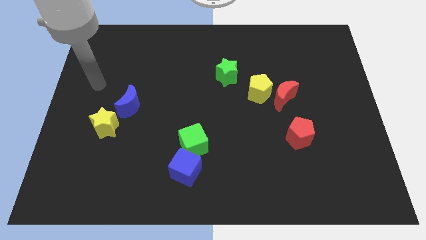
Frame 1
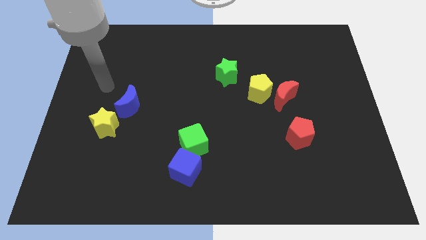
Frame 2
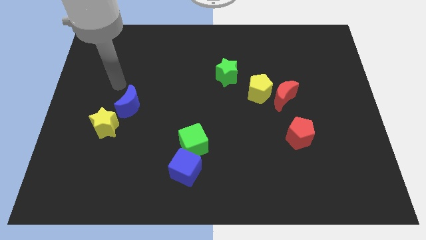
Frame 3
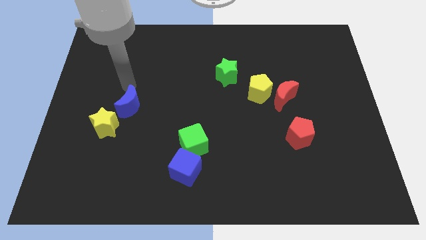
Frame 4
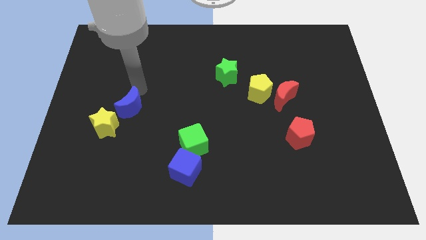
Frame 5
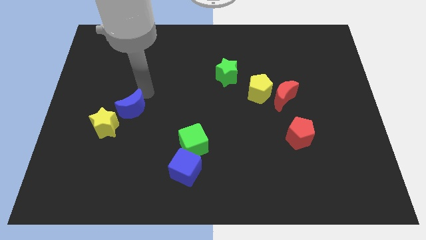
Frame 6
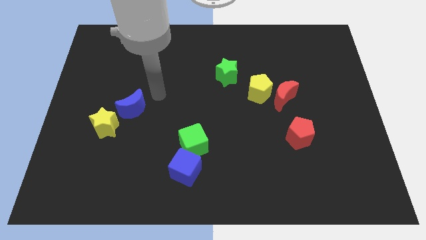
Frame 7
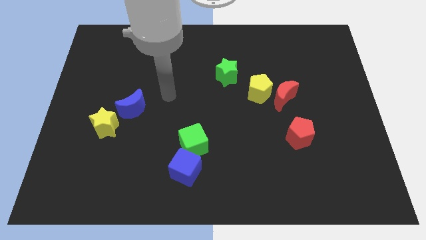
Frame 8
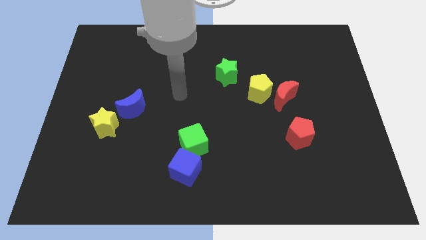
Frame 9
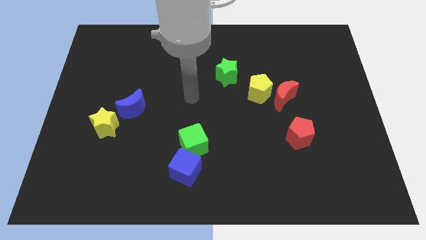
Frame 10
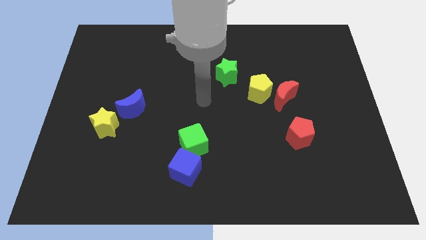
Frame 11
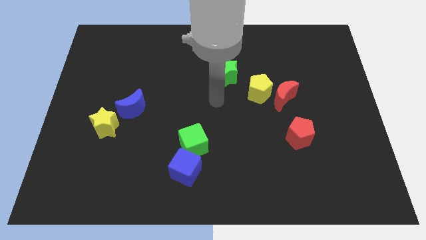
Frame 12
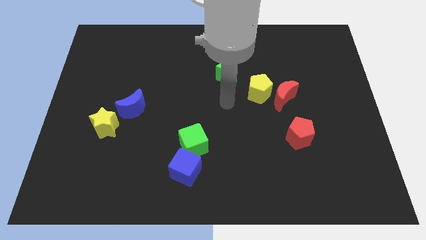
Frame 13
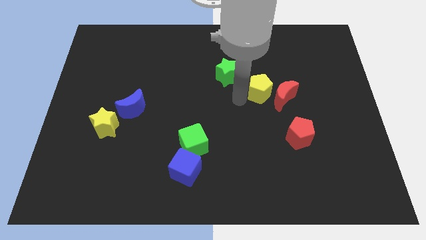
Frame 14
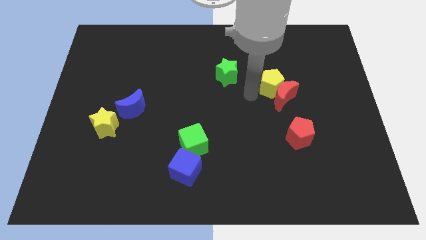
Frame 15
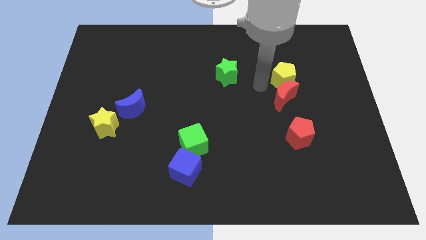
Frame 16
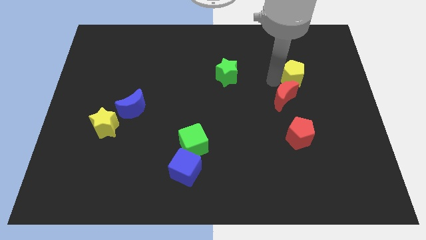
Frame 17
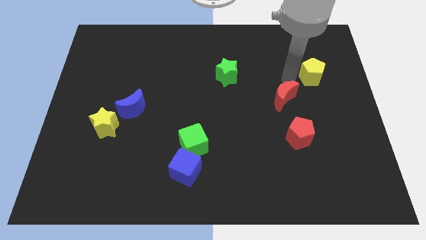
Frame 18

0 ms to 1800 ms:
move the red moon away from the yellow pentagon

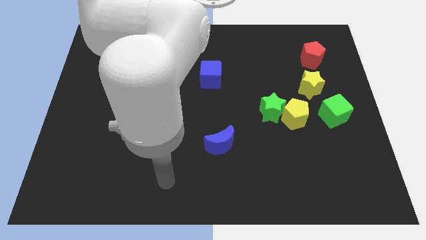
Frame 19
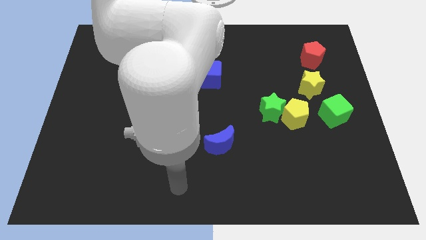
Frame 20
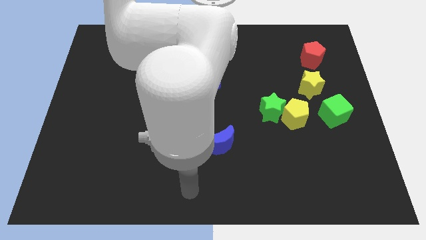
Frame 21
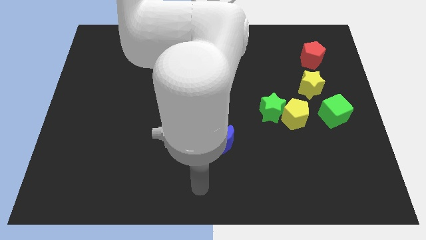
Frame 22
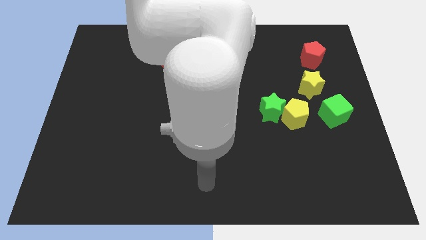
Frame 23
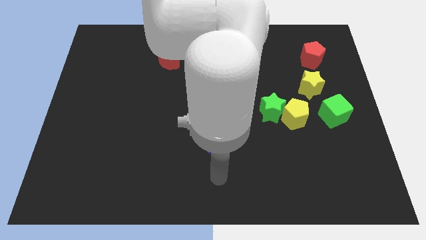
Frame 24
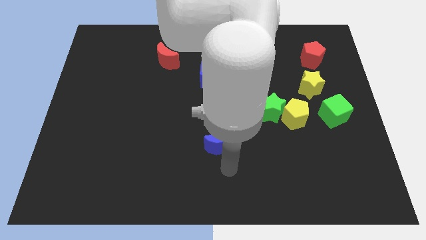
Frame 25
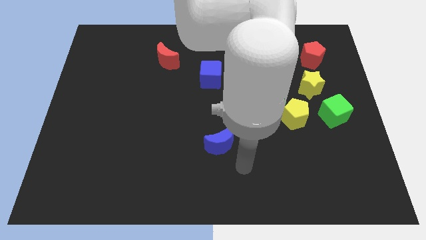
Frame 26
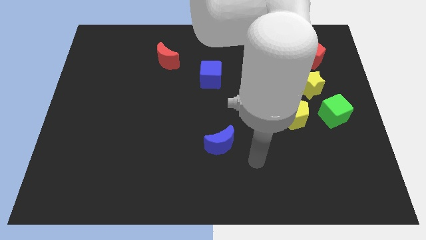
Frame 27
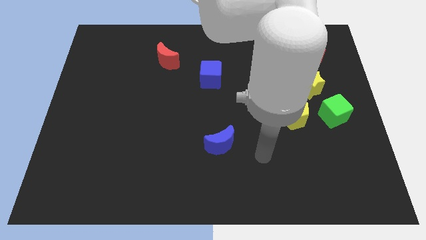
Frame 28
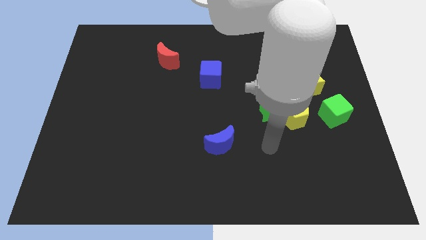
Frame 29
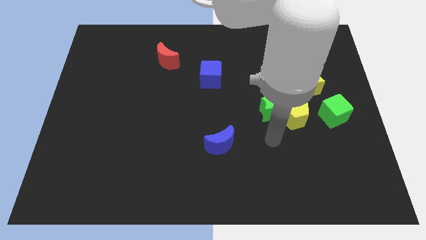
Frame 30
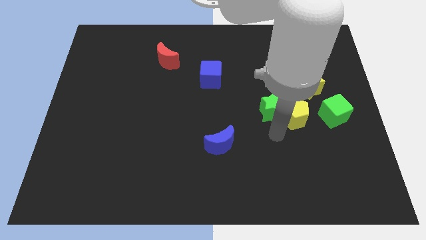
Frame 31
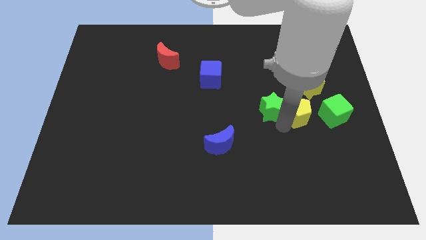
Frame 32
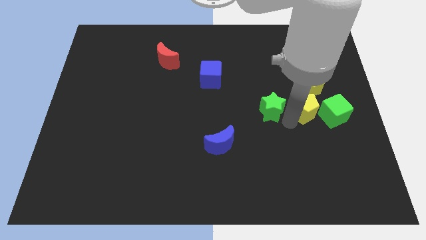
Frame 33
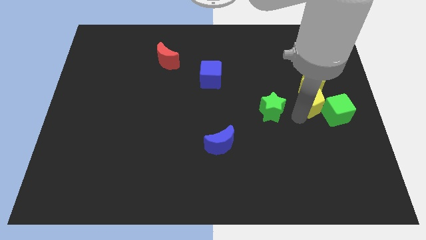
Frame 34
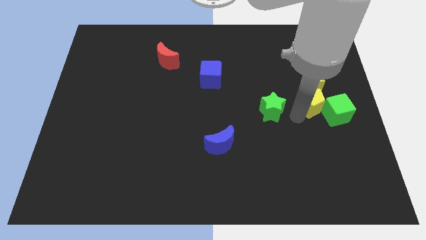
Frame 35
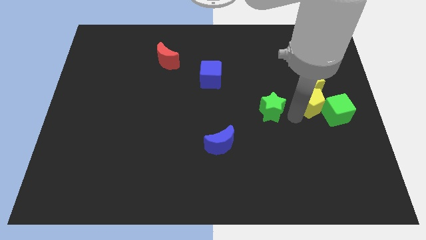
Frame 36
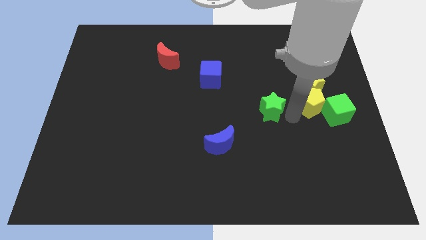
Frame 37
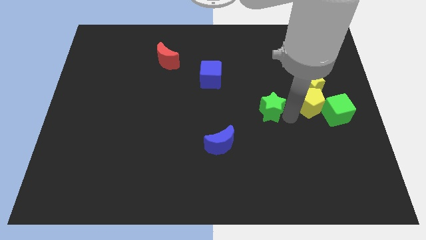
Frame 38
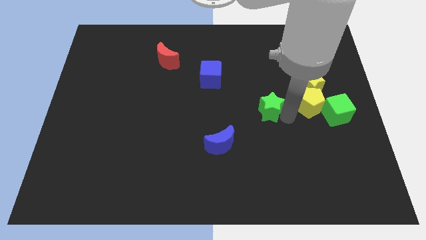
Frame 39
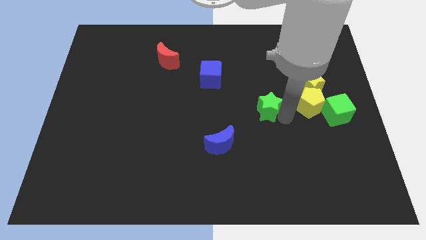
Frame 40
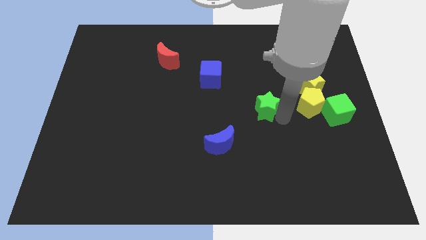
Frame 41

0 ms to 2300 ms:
move the green star away from the yellow pentagon

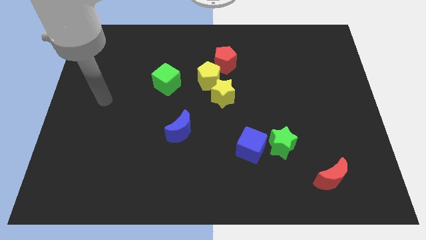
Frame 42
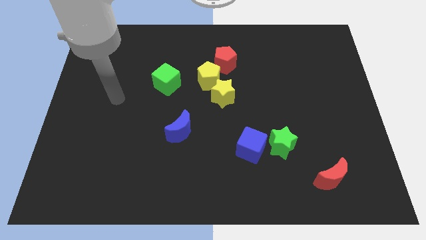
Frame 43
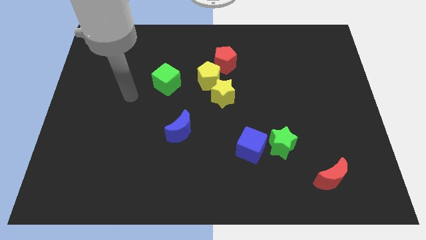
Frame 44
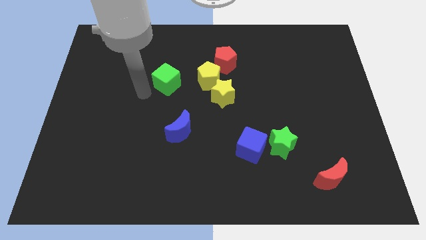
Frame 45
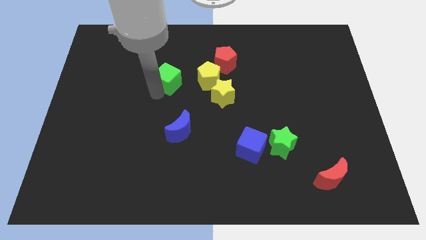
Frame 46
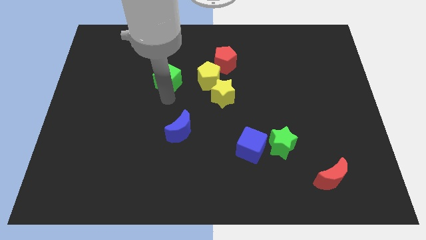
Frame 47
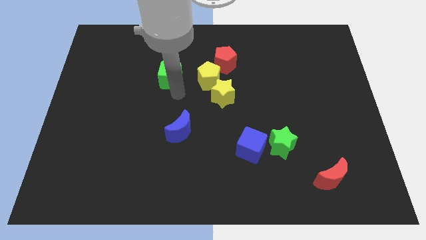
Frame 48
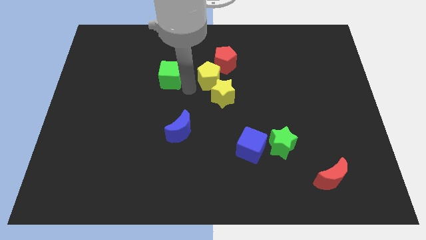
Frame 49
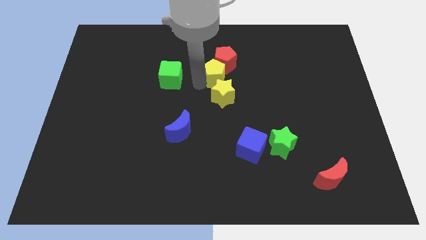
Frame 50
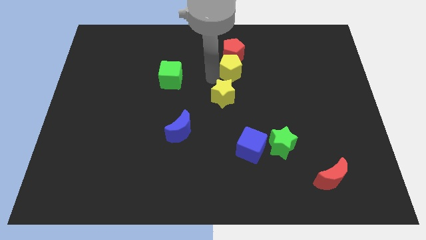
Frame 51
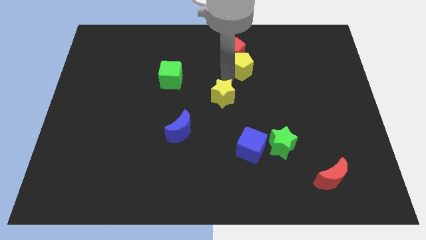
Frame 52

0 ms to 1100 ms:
pull the yellow star apart from the yellow pentagon

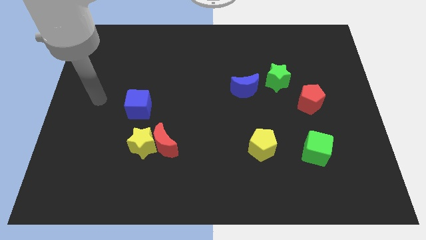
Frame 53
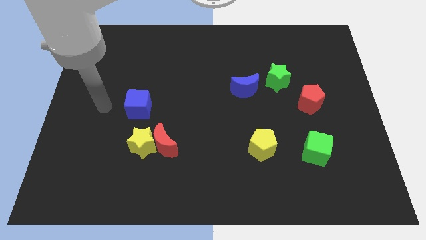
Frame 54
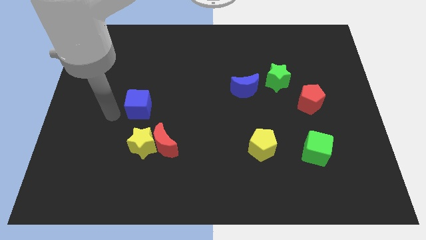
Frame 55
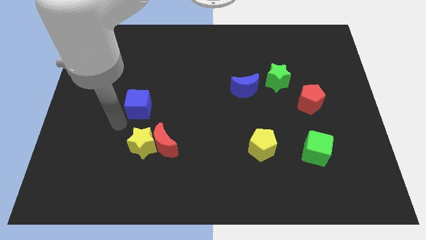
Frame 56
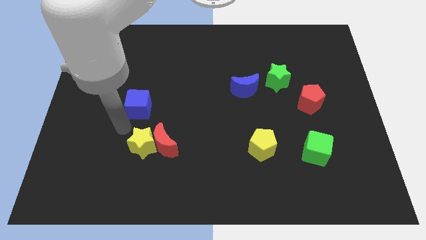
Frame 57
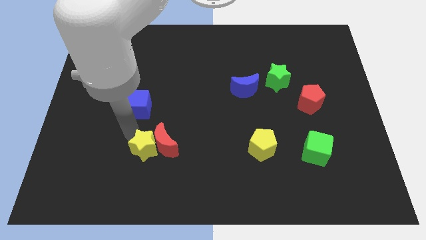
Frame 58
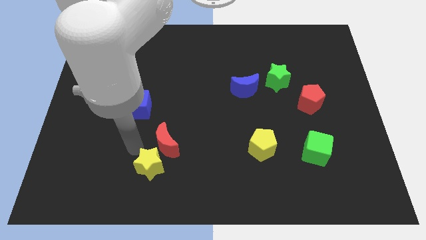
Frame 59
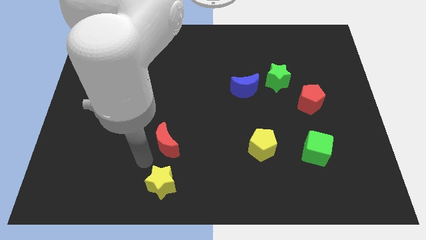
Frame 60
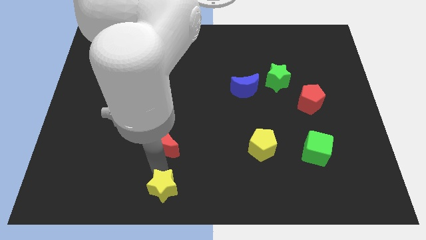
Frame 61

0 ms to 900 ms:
separate the red moon from the yellow star

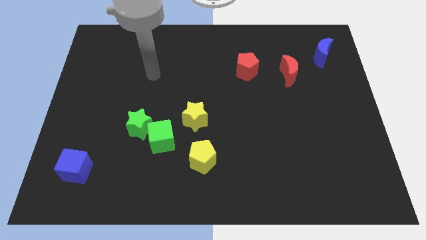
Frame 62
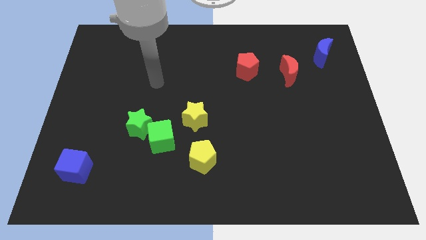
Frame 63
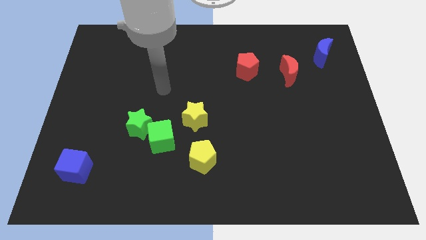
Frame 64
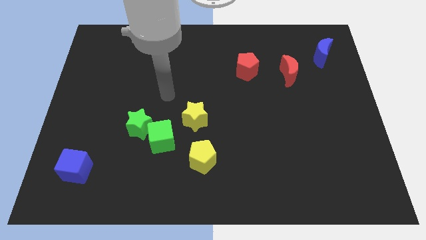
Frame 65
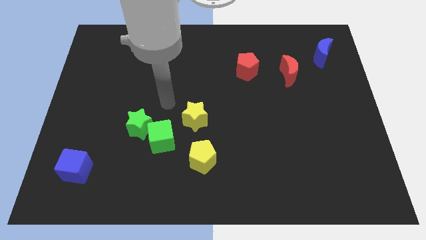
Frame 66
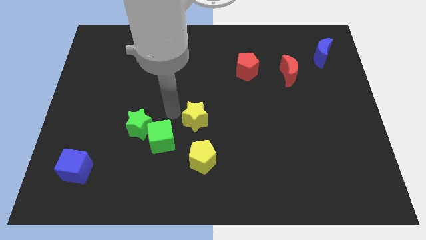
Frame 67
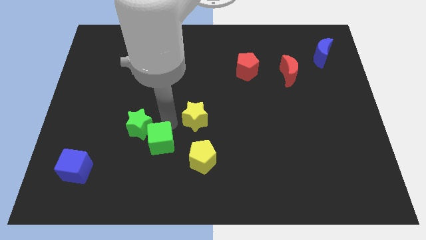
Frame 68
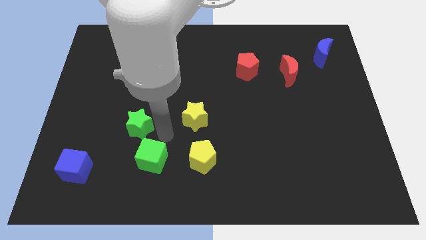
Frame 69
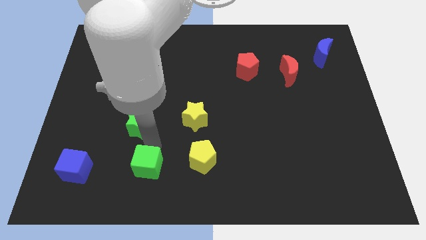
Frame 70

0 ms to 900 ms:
separate the green star from the green cube

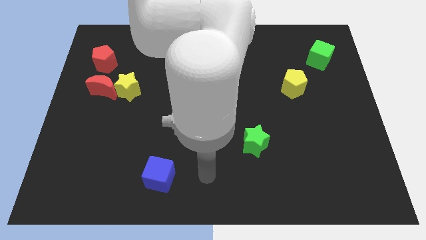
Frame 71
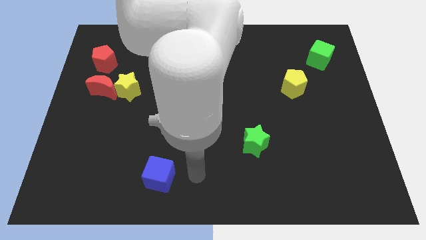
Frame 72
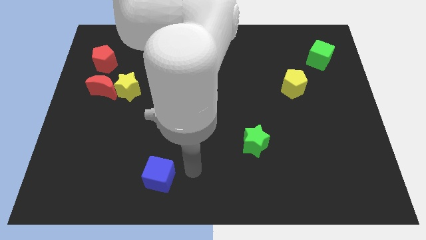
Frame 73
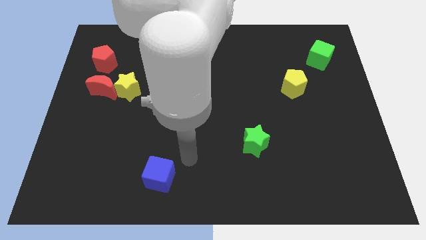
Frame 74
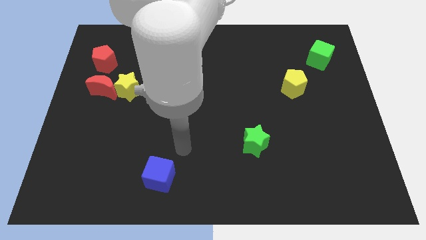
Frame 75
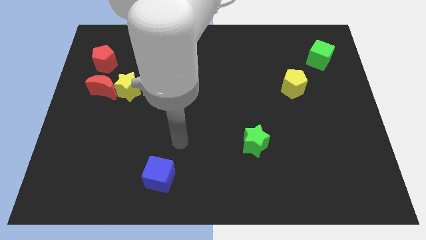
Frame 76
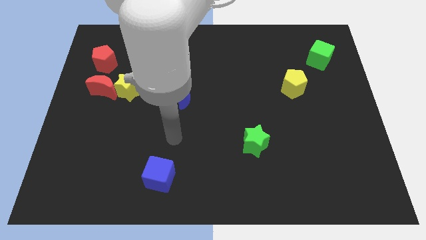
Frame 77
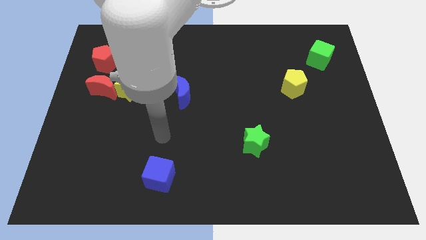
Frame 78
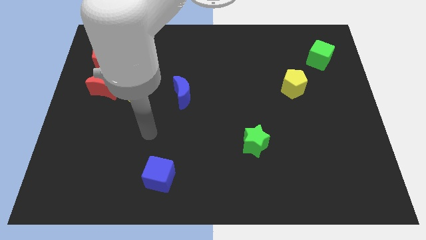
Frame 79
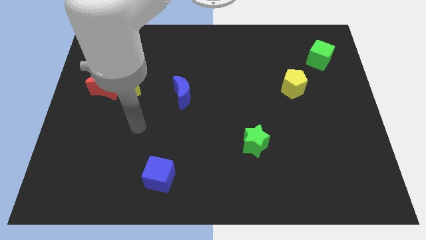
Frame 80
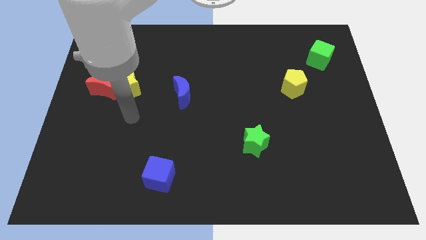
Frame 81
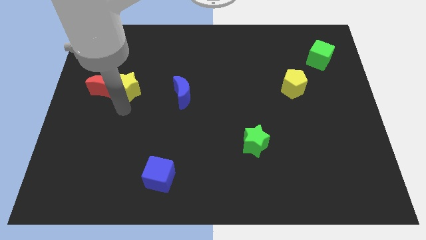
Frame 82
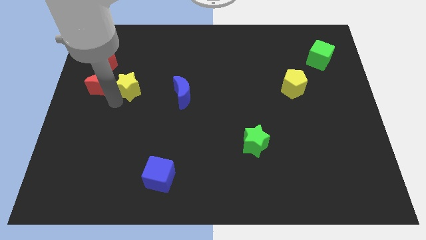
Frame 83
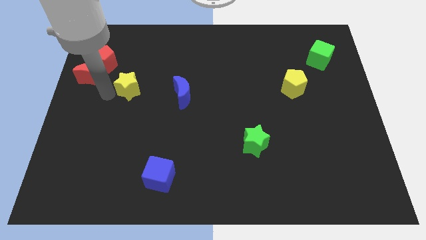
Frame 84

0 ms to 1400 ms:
move the yellow star away from the red moon

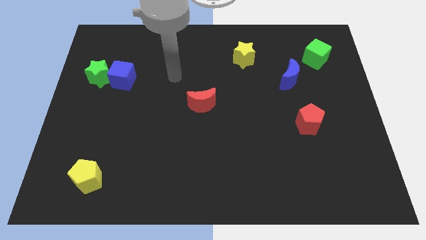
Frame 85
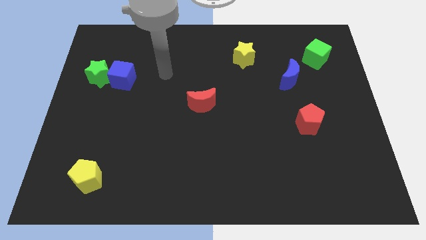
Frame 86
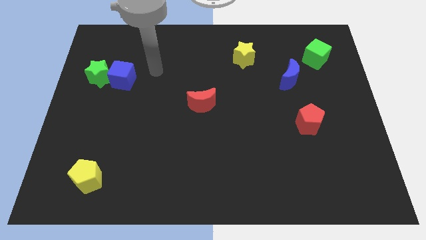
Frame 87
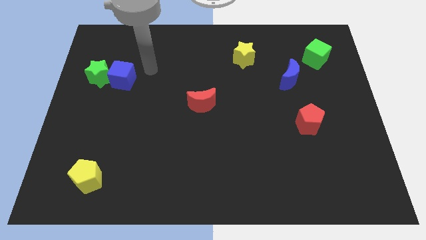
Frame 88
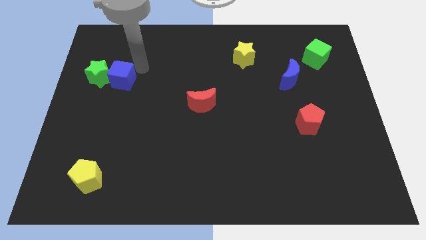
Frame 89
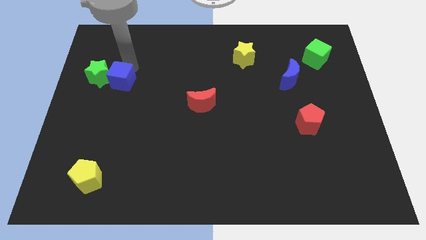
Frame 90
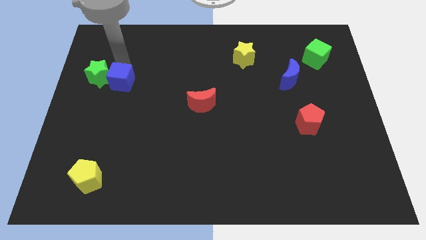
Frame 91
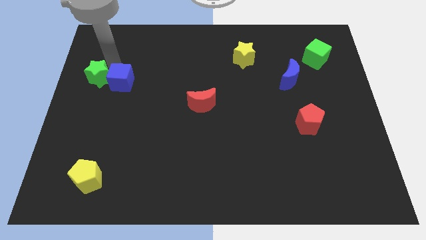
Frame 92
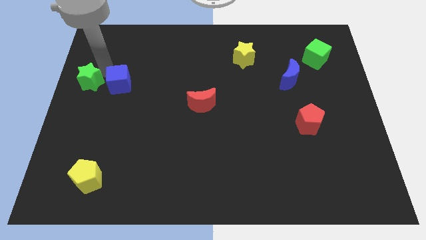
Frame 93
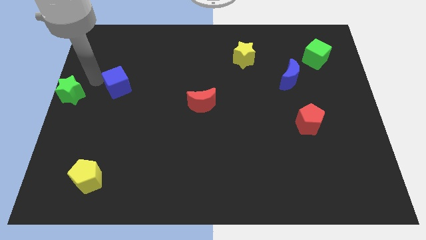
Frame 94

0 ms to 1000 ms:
separate the blue cube from the green star
